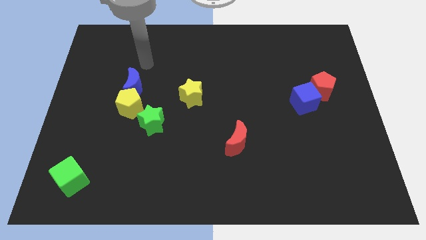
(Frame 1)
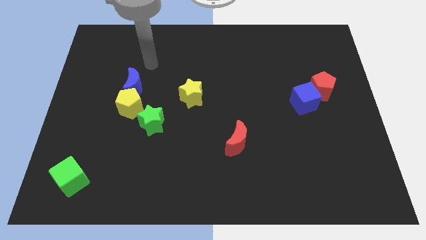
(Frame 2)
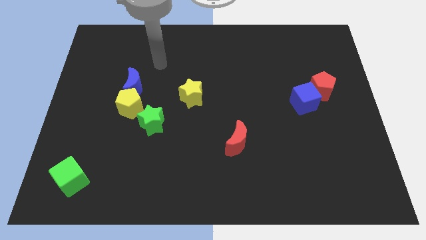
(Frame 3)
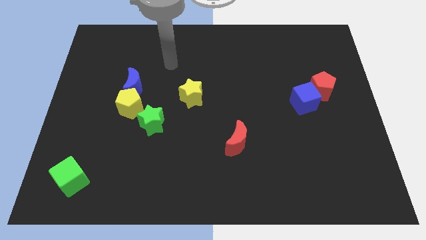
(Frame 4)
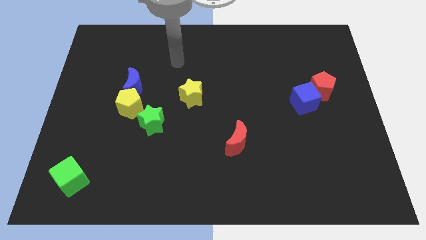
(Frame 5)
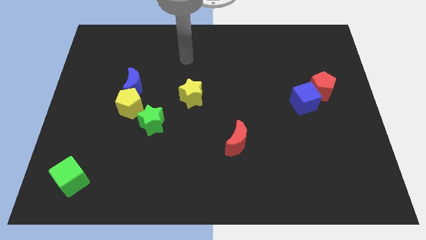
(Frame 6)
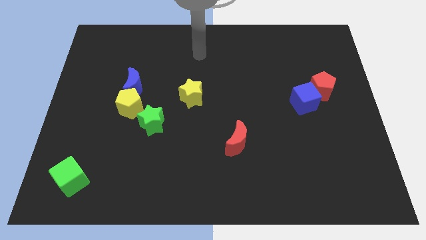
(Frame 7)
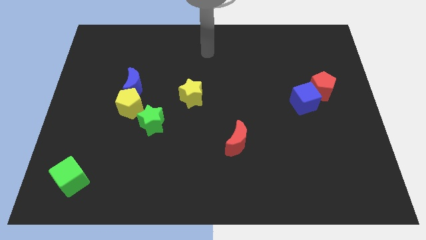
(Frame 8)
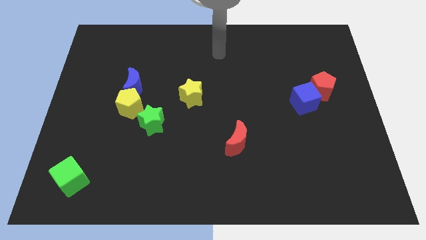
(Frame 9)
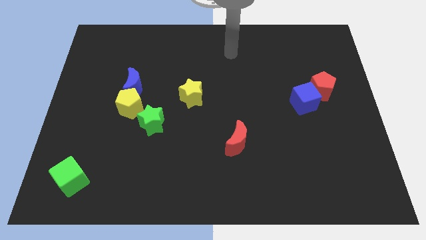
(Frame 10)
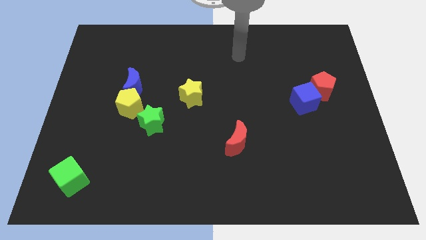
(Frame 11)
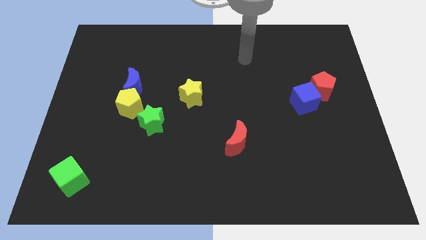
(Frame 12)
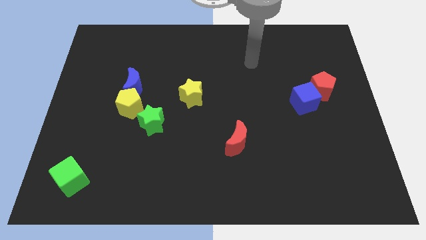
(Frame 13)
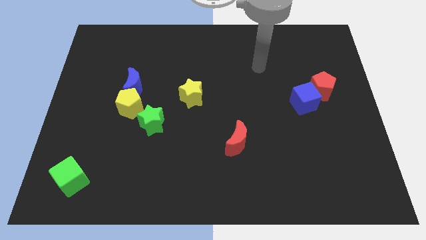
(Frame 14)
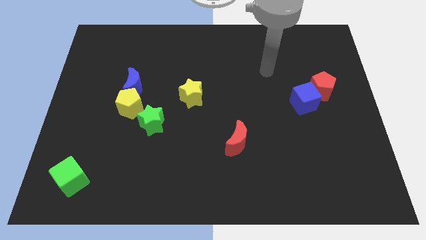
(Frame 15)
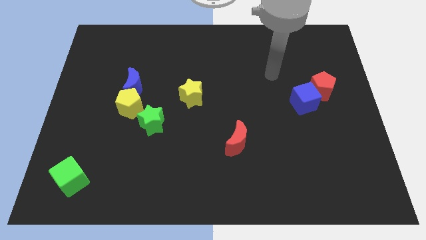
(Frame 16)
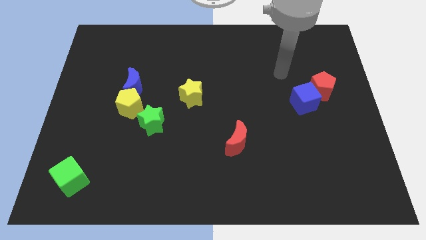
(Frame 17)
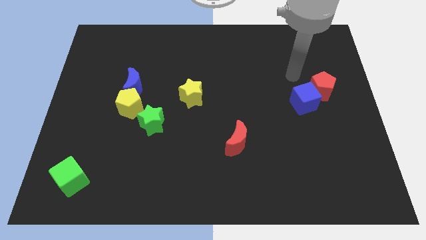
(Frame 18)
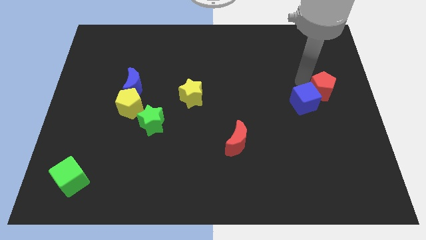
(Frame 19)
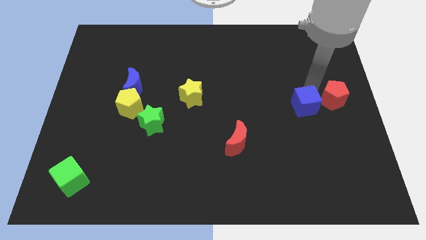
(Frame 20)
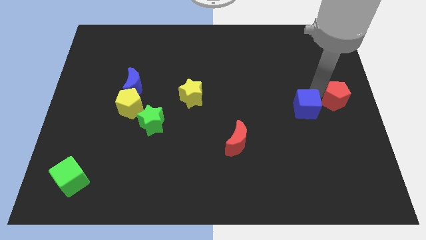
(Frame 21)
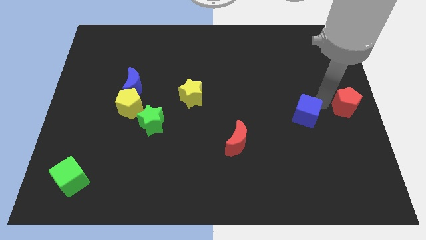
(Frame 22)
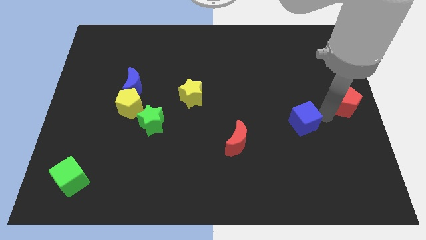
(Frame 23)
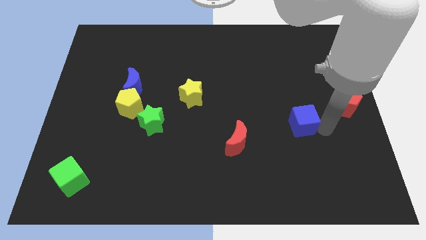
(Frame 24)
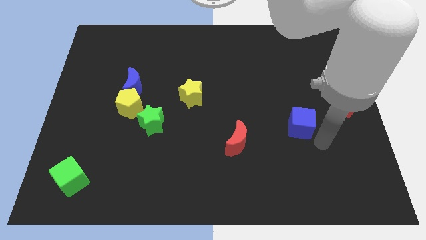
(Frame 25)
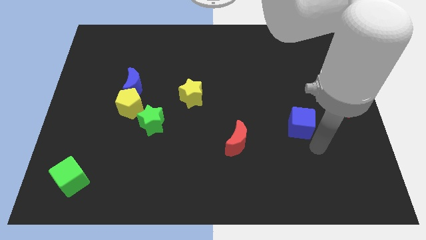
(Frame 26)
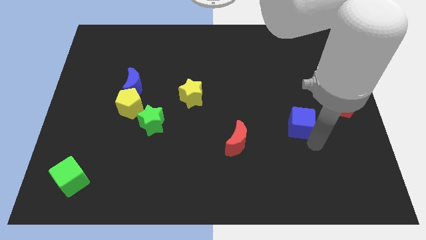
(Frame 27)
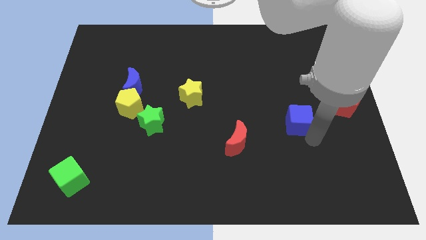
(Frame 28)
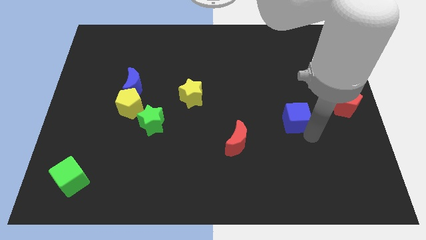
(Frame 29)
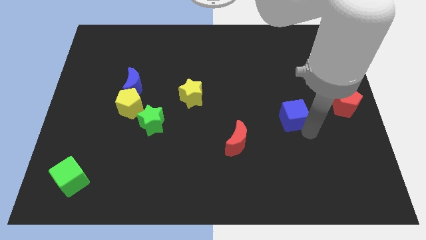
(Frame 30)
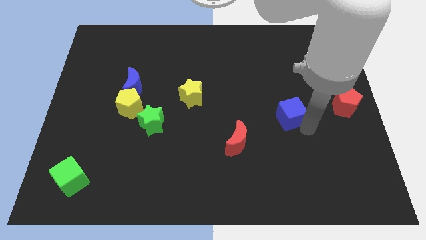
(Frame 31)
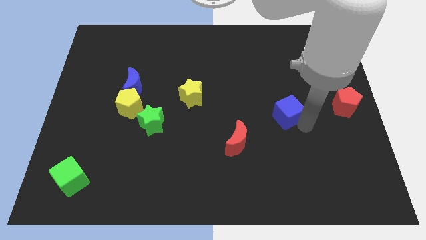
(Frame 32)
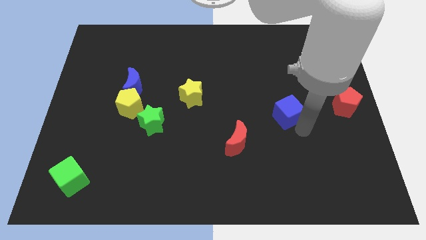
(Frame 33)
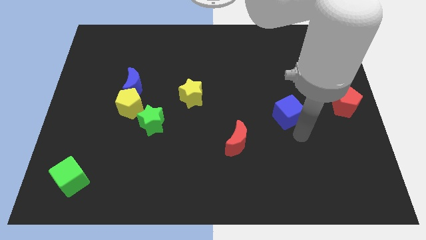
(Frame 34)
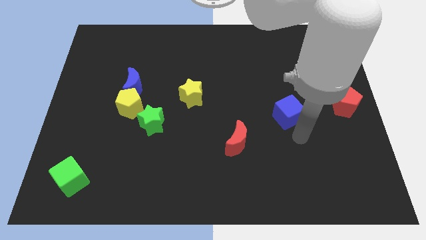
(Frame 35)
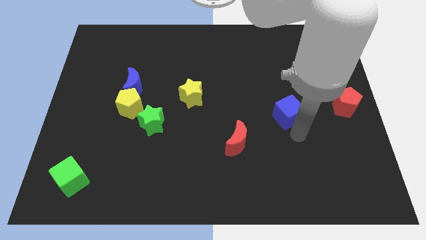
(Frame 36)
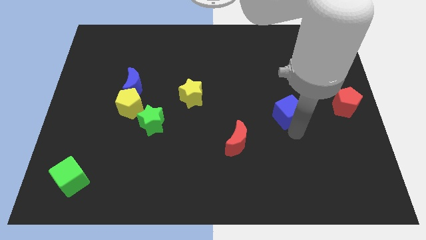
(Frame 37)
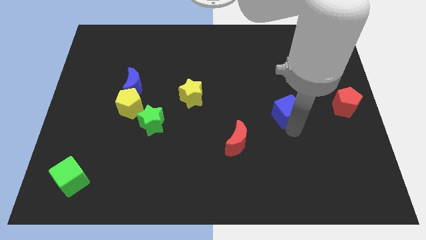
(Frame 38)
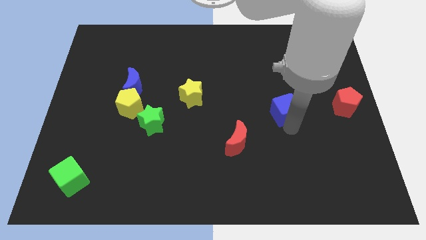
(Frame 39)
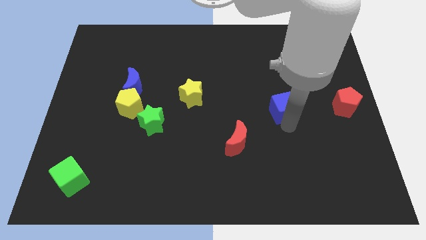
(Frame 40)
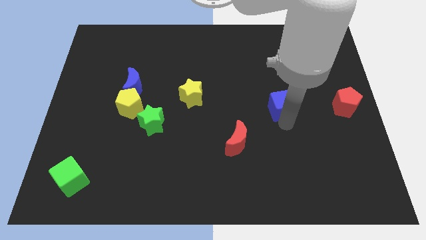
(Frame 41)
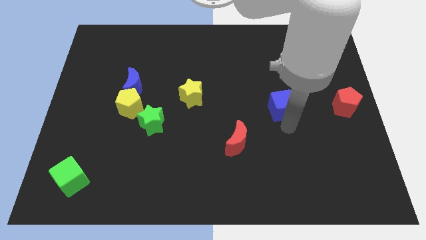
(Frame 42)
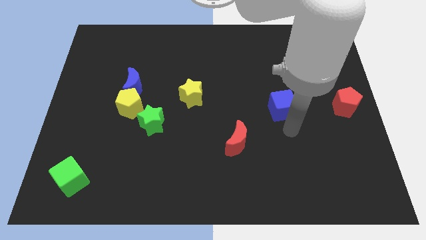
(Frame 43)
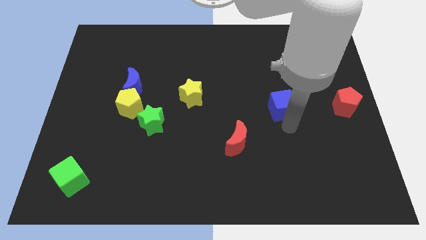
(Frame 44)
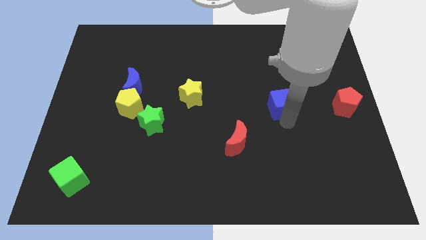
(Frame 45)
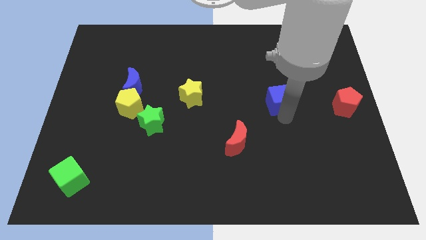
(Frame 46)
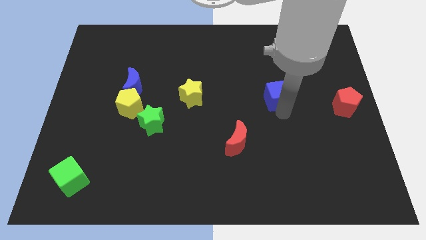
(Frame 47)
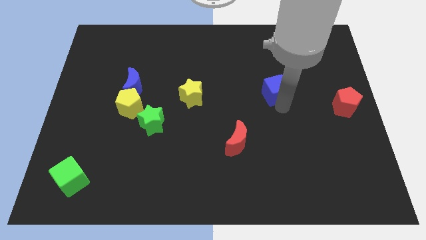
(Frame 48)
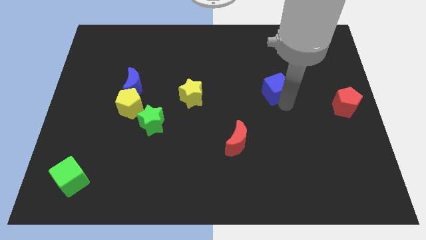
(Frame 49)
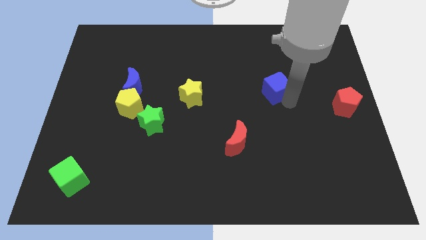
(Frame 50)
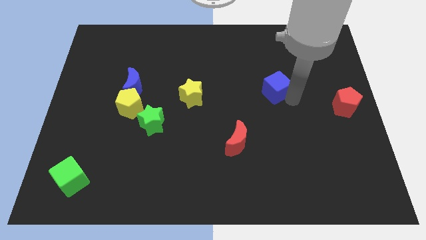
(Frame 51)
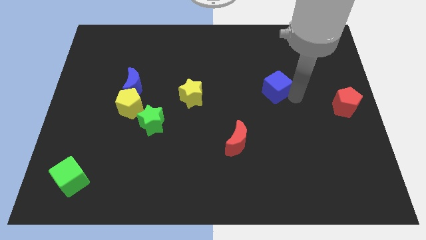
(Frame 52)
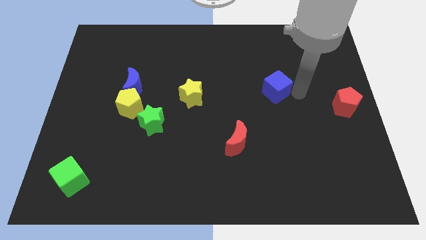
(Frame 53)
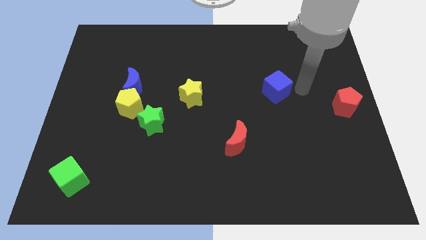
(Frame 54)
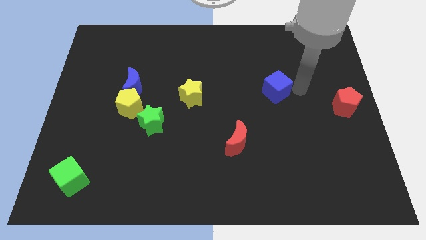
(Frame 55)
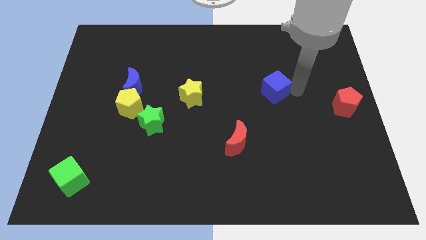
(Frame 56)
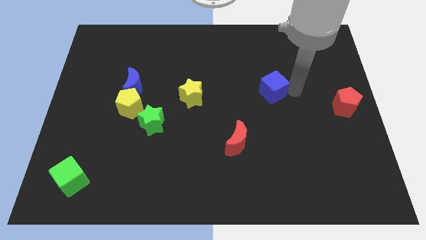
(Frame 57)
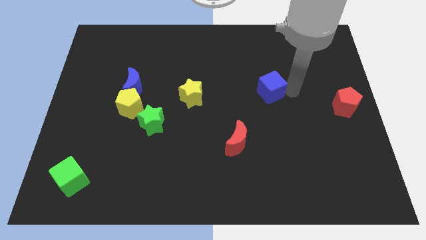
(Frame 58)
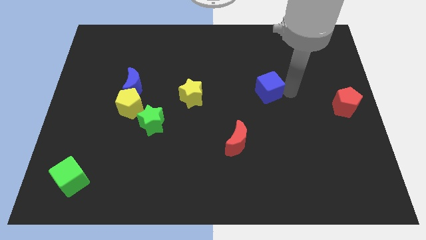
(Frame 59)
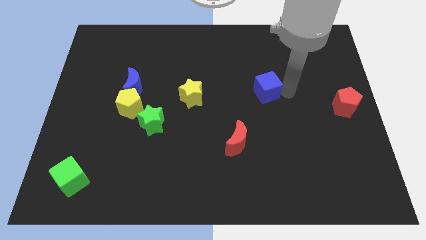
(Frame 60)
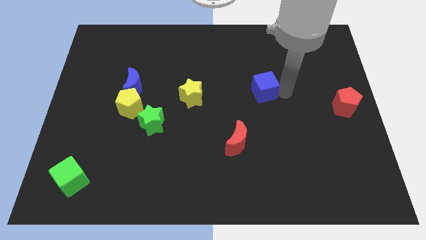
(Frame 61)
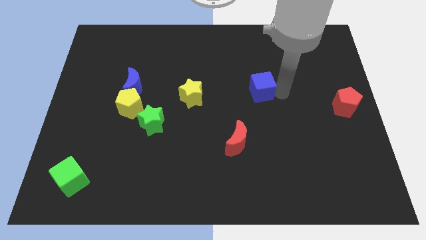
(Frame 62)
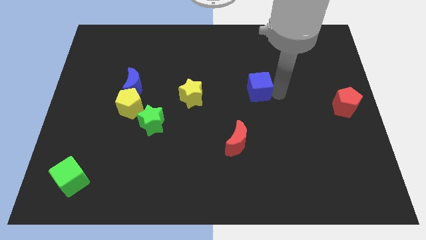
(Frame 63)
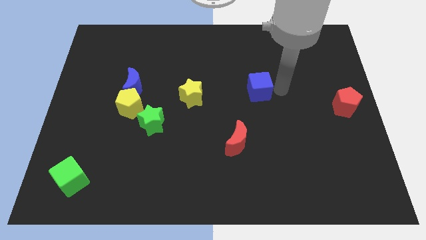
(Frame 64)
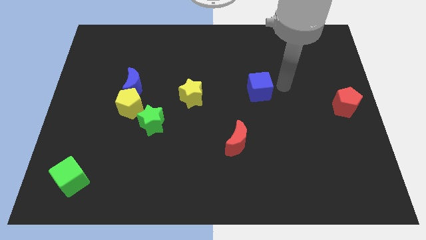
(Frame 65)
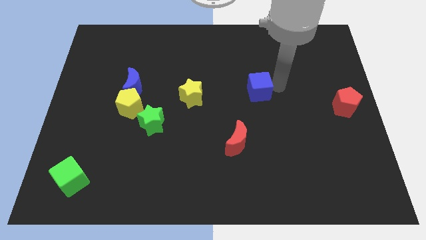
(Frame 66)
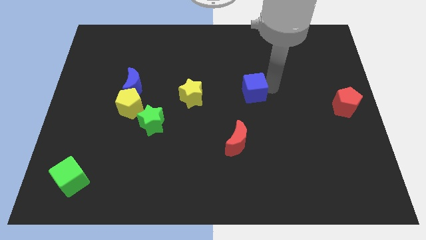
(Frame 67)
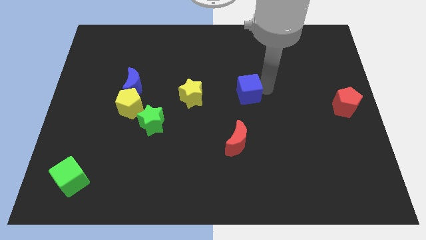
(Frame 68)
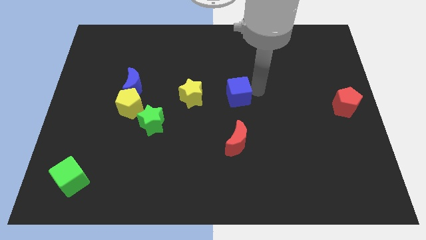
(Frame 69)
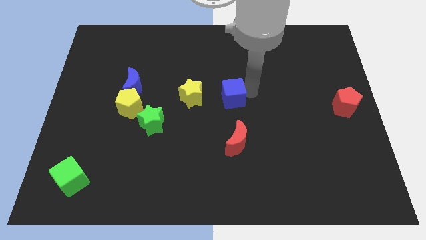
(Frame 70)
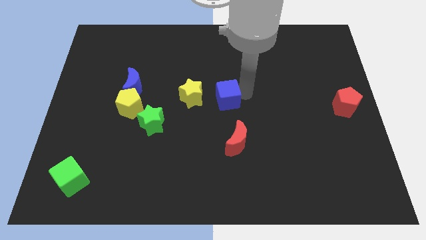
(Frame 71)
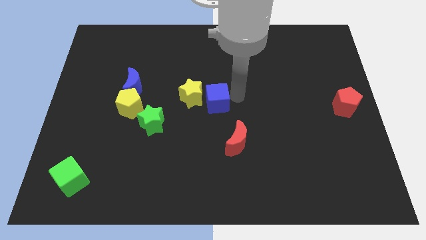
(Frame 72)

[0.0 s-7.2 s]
move the blue cube to the yellow star
